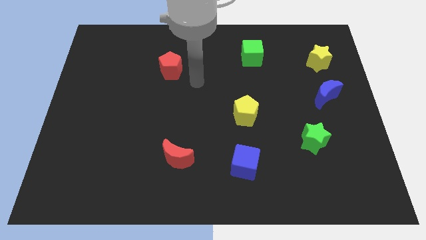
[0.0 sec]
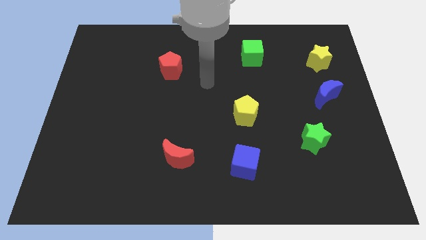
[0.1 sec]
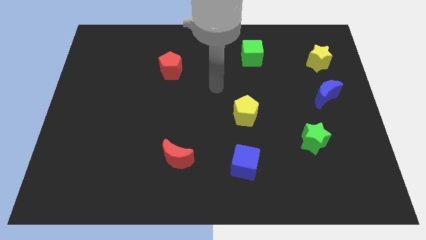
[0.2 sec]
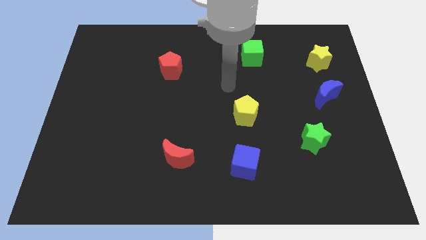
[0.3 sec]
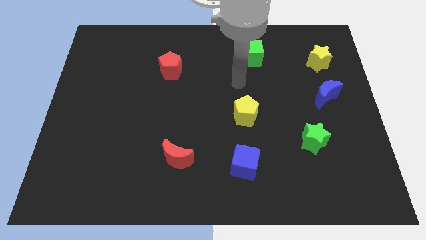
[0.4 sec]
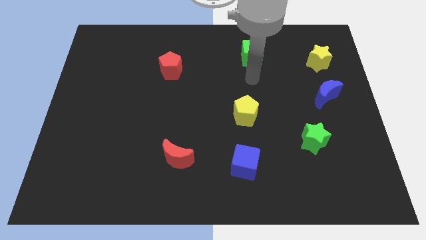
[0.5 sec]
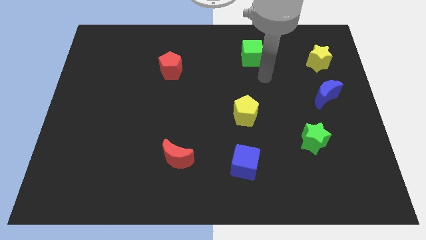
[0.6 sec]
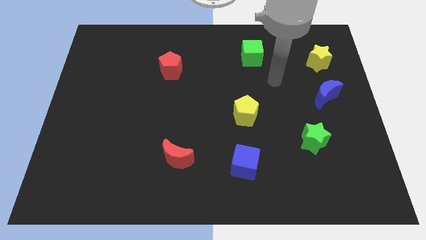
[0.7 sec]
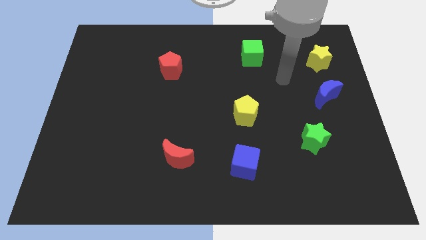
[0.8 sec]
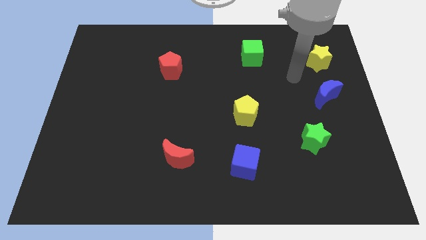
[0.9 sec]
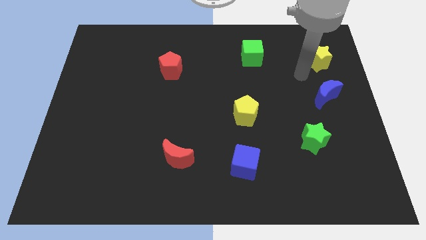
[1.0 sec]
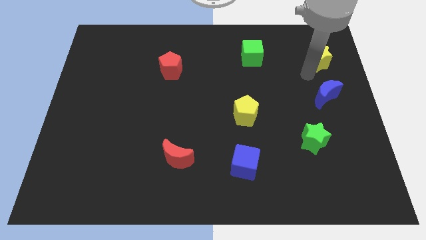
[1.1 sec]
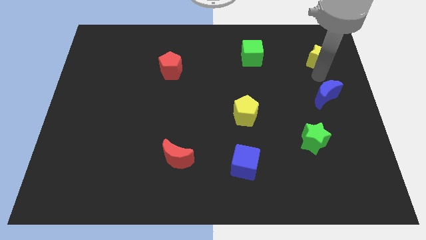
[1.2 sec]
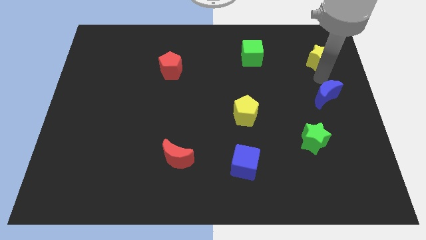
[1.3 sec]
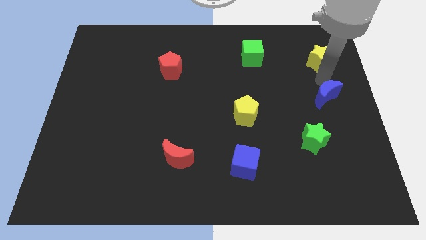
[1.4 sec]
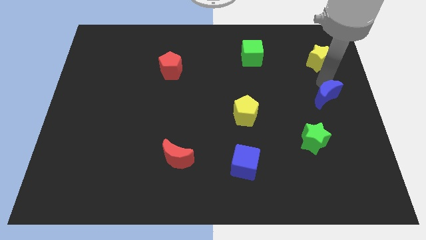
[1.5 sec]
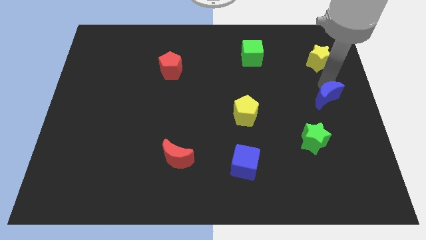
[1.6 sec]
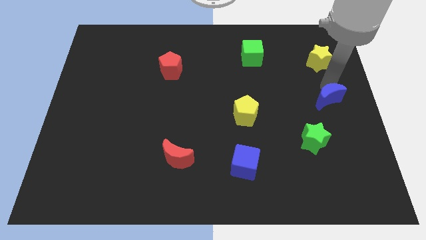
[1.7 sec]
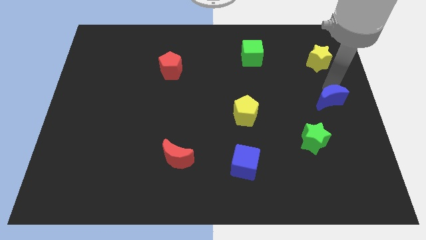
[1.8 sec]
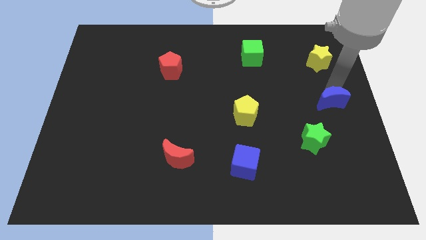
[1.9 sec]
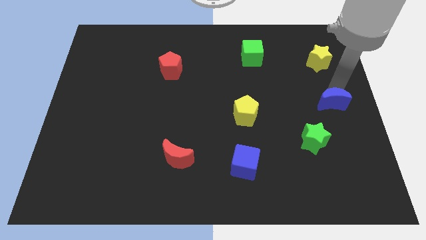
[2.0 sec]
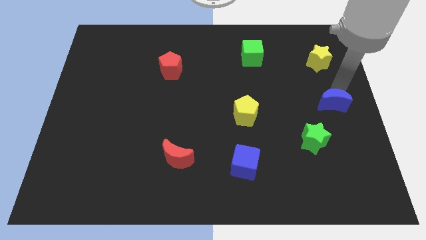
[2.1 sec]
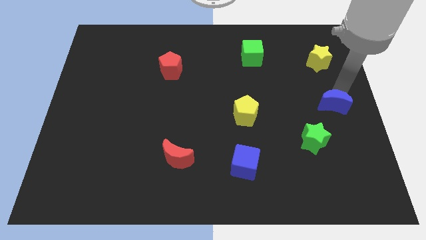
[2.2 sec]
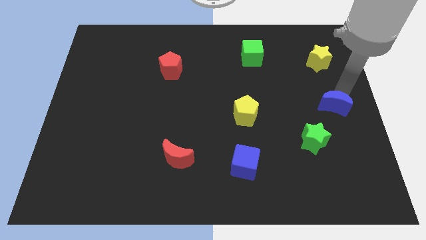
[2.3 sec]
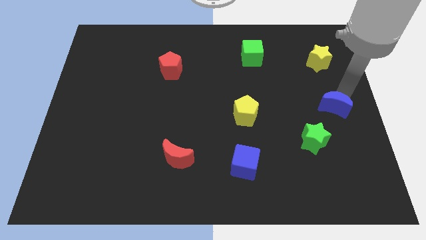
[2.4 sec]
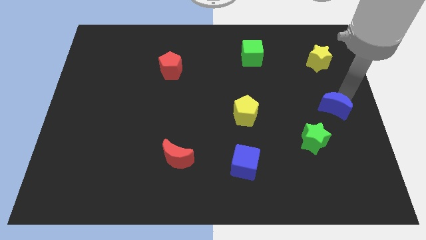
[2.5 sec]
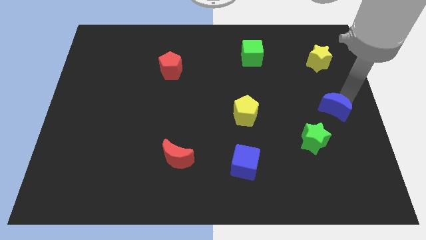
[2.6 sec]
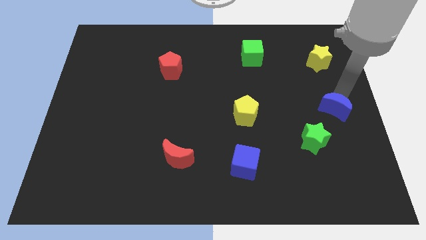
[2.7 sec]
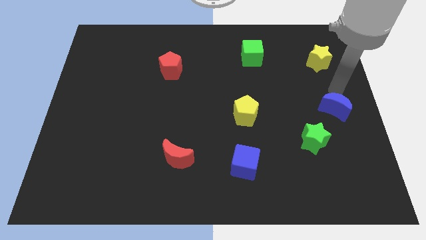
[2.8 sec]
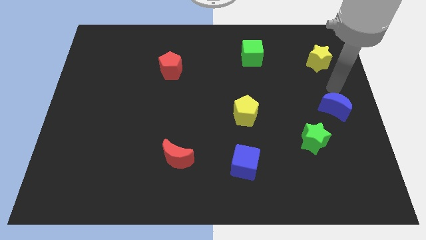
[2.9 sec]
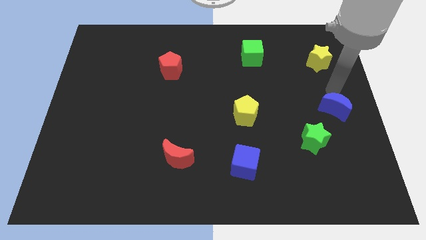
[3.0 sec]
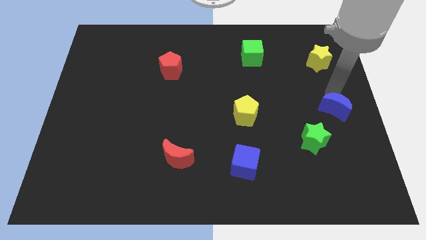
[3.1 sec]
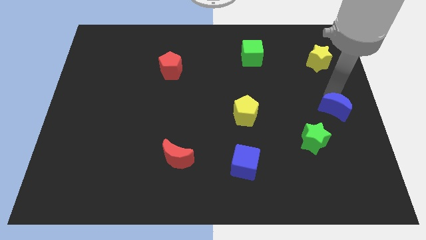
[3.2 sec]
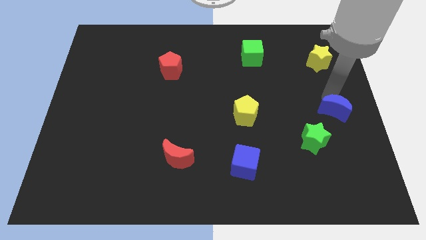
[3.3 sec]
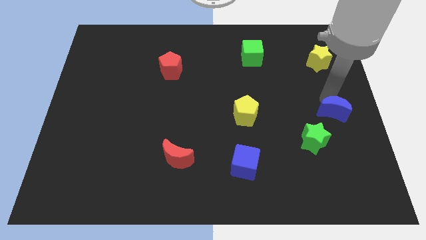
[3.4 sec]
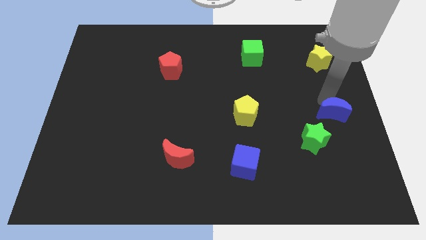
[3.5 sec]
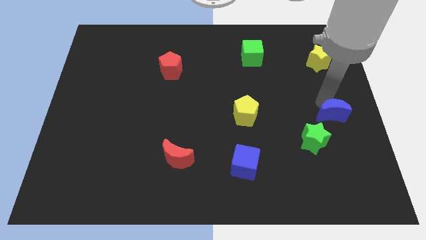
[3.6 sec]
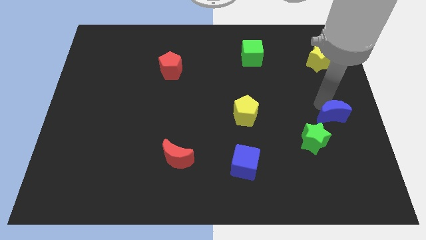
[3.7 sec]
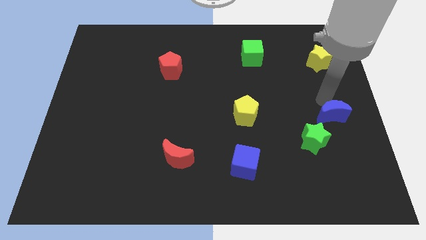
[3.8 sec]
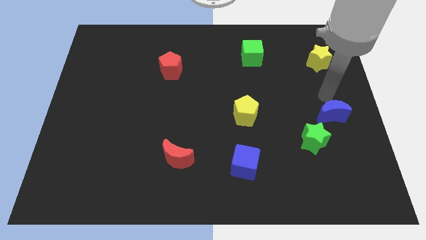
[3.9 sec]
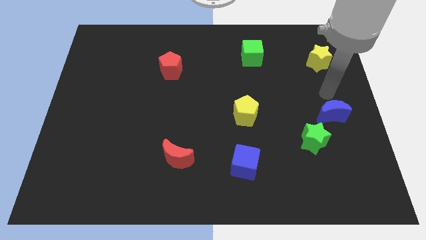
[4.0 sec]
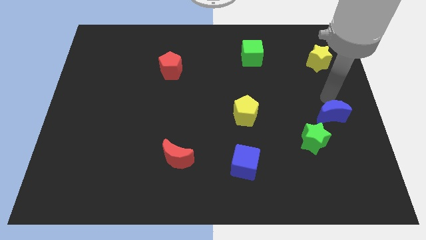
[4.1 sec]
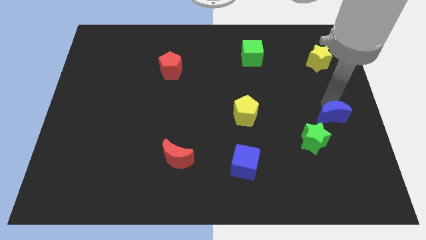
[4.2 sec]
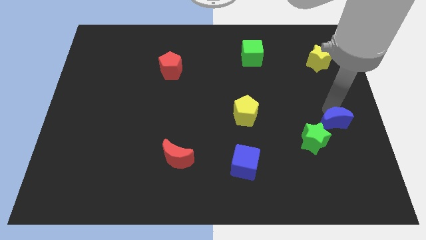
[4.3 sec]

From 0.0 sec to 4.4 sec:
push the blue moon down slightly

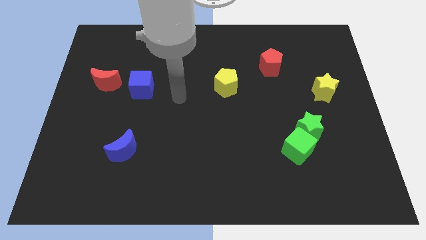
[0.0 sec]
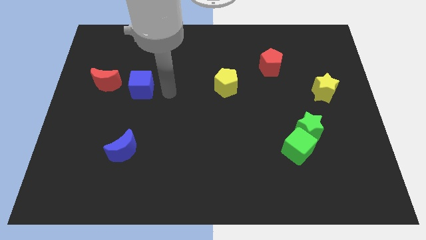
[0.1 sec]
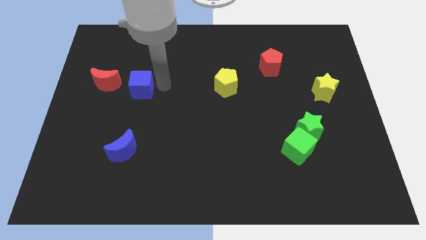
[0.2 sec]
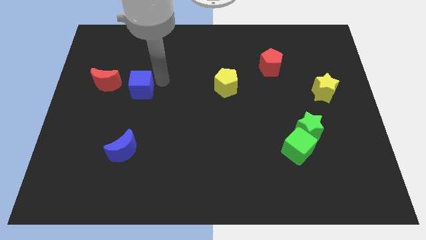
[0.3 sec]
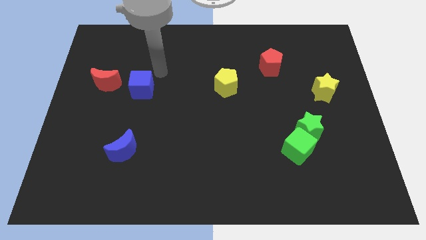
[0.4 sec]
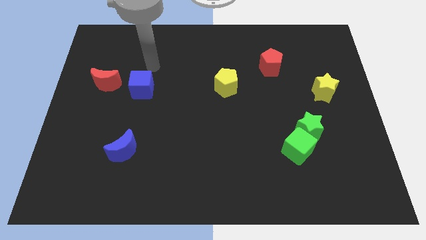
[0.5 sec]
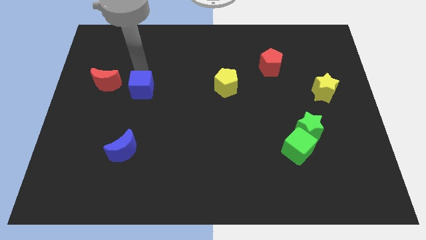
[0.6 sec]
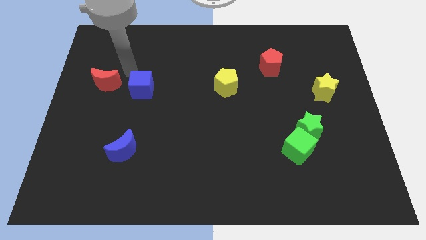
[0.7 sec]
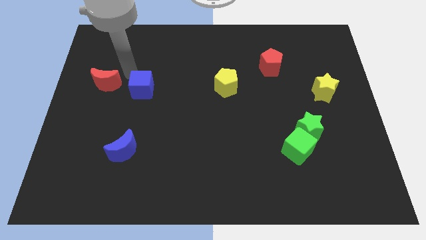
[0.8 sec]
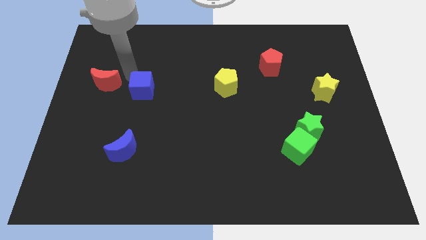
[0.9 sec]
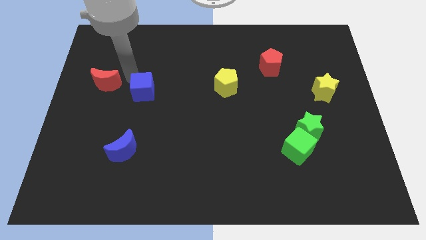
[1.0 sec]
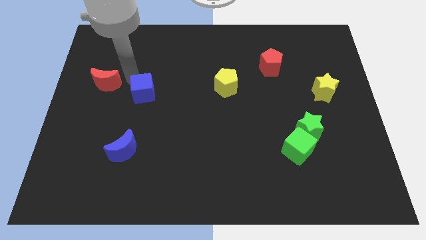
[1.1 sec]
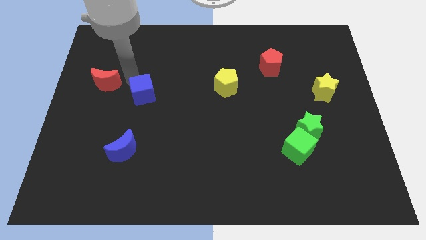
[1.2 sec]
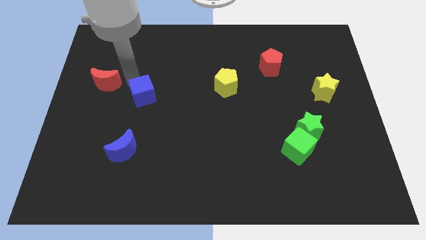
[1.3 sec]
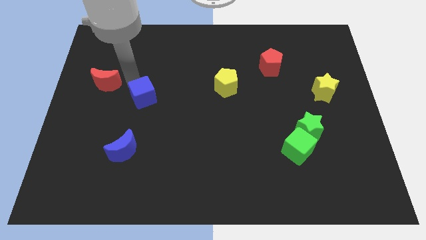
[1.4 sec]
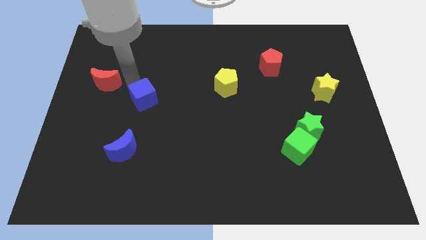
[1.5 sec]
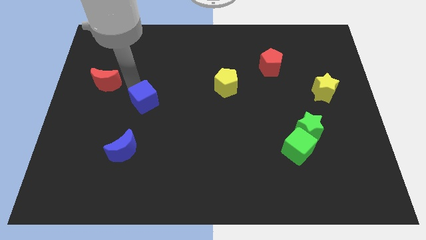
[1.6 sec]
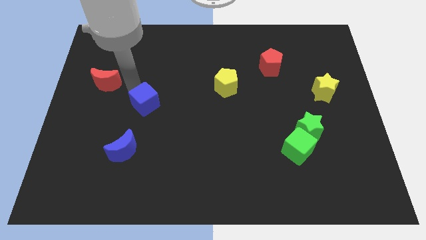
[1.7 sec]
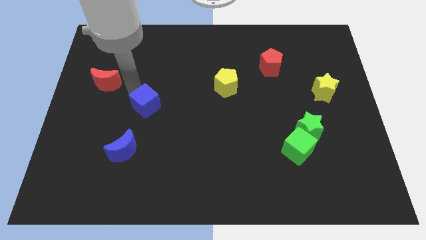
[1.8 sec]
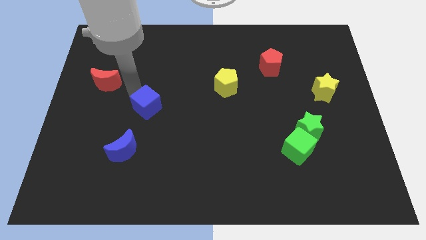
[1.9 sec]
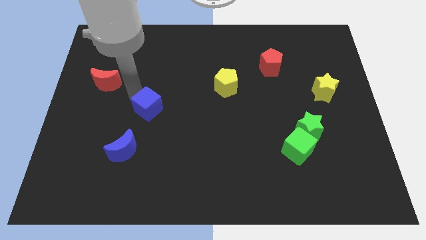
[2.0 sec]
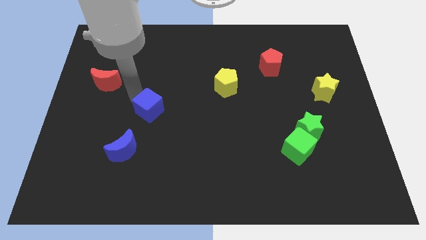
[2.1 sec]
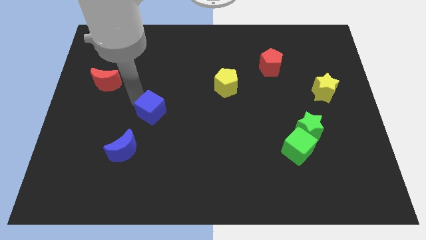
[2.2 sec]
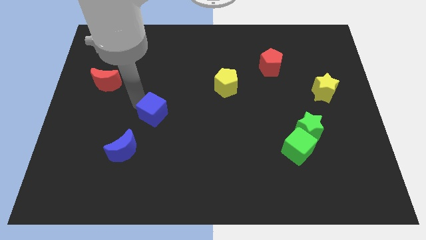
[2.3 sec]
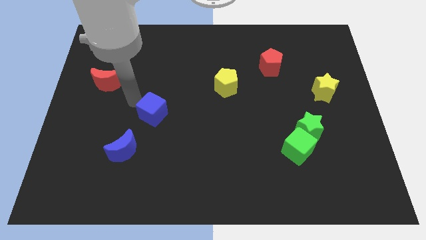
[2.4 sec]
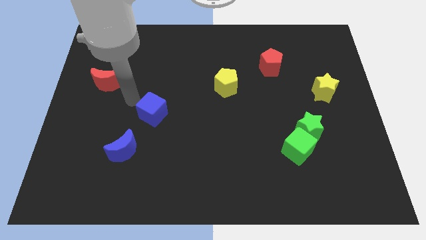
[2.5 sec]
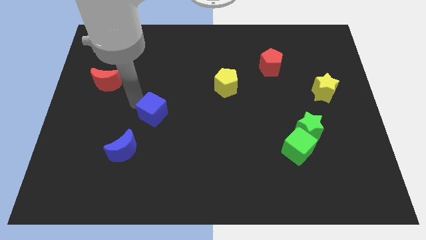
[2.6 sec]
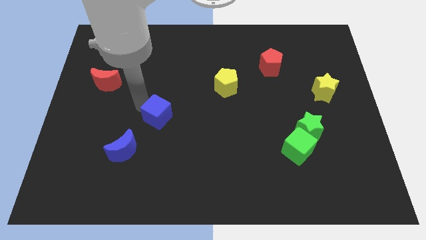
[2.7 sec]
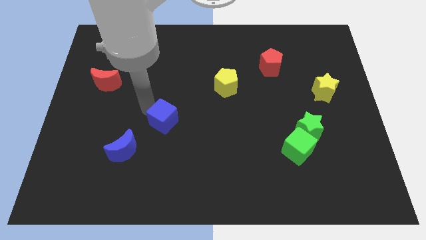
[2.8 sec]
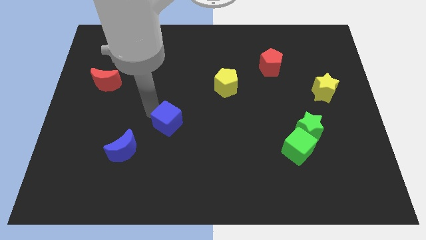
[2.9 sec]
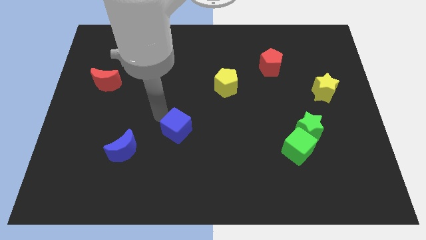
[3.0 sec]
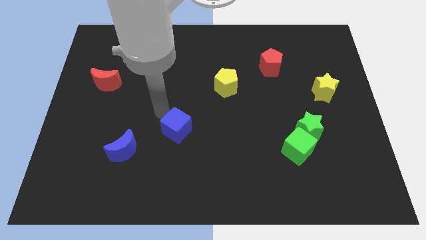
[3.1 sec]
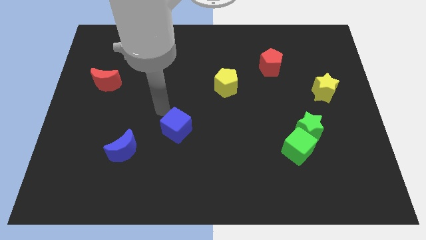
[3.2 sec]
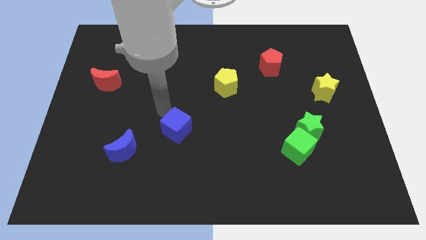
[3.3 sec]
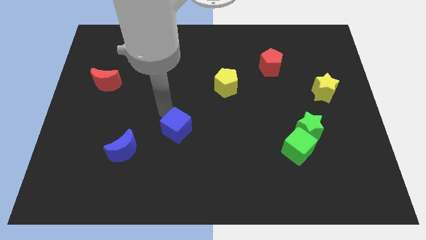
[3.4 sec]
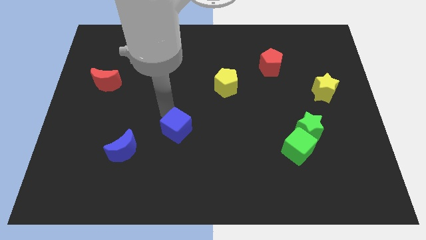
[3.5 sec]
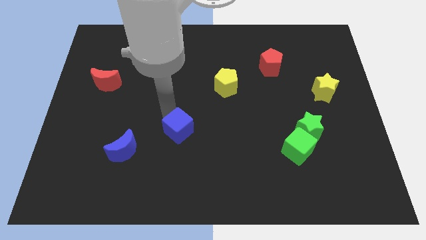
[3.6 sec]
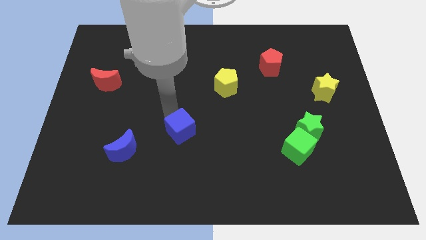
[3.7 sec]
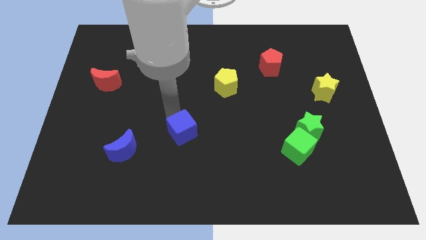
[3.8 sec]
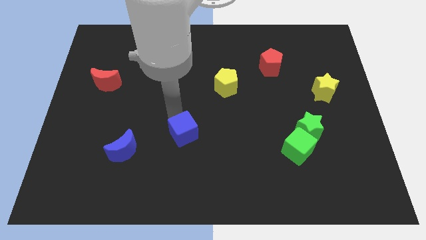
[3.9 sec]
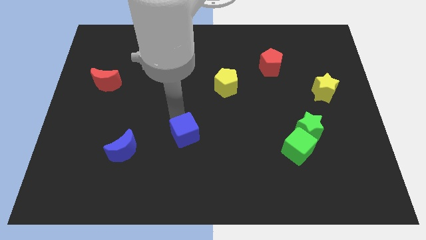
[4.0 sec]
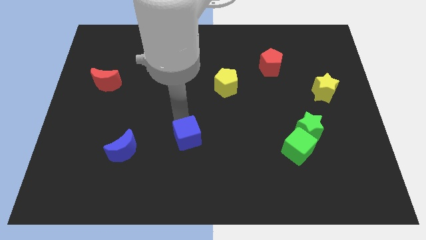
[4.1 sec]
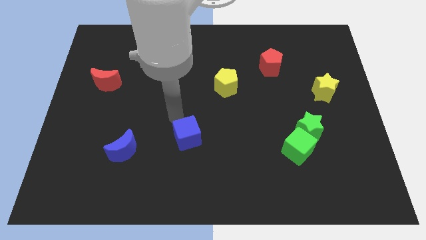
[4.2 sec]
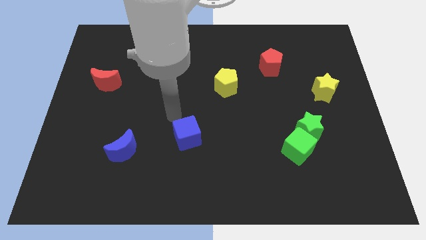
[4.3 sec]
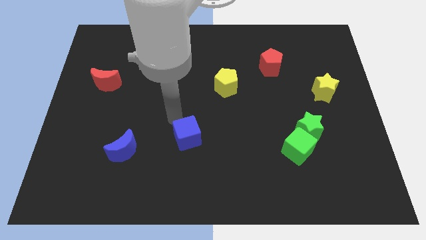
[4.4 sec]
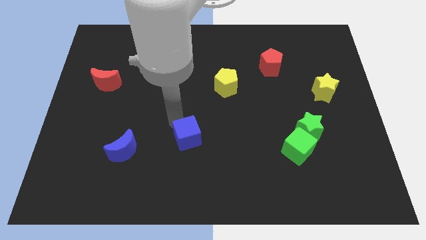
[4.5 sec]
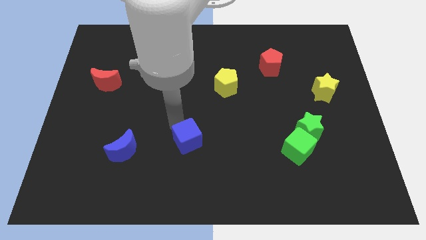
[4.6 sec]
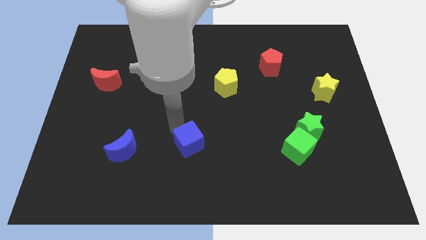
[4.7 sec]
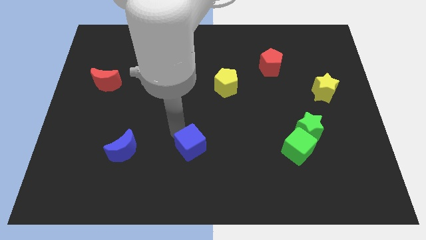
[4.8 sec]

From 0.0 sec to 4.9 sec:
push the blue cube downwards and to the right diagonally
